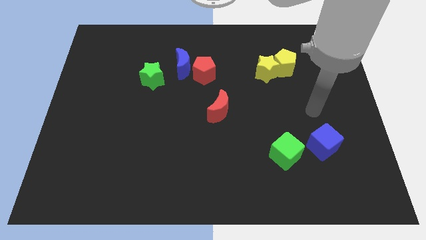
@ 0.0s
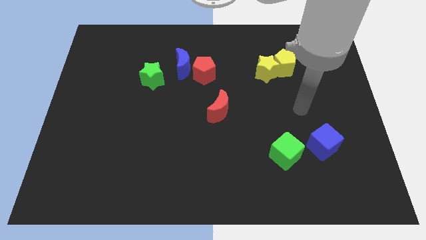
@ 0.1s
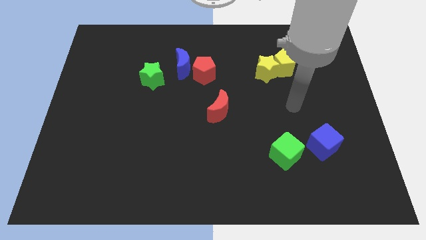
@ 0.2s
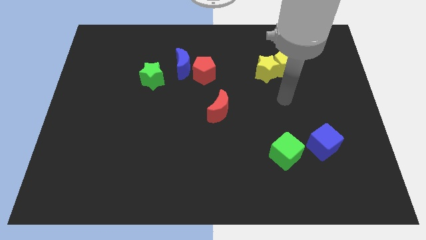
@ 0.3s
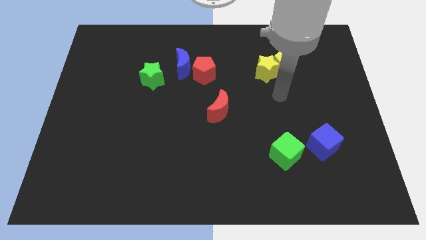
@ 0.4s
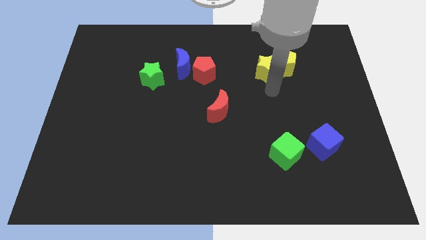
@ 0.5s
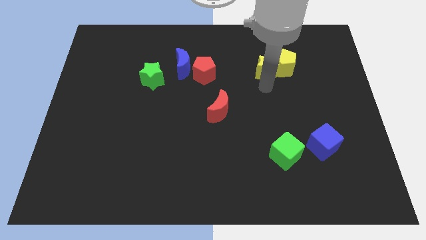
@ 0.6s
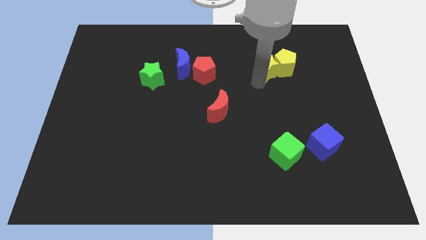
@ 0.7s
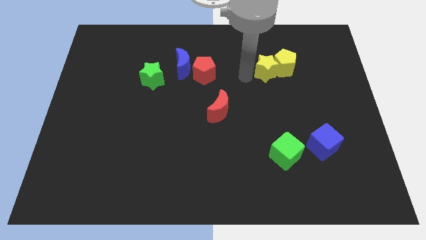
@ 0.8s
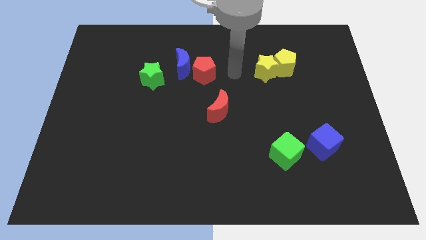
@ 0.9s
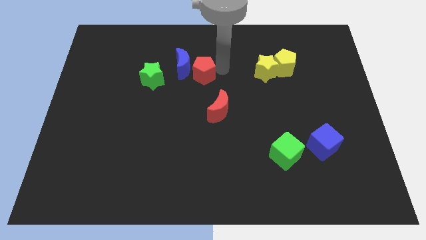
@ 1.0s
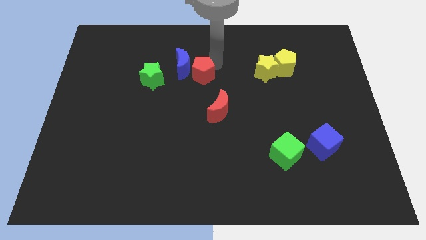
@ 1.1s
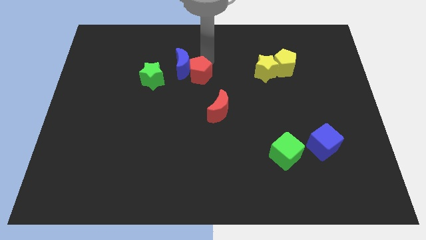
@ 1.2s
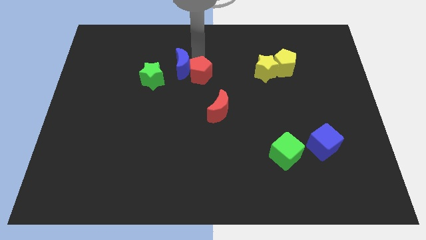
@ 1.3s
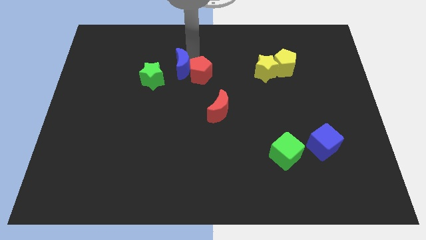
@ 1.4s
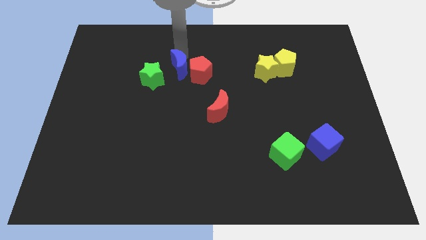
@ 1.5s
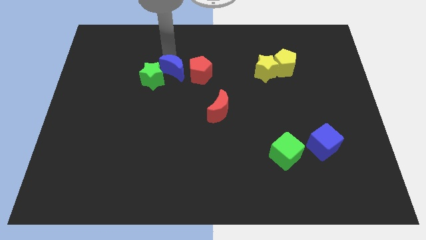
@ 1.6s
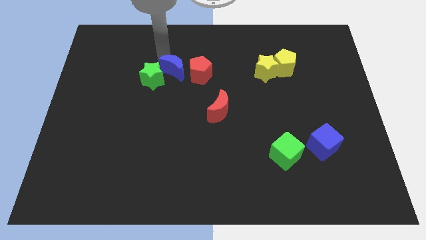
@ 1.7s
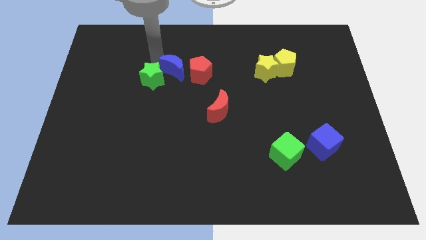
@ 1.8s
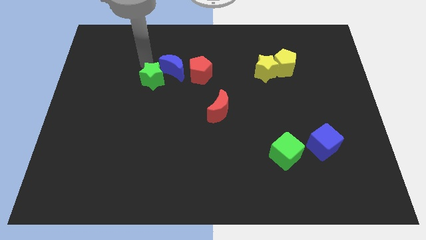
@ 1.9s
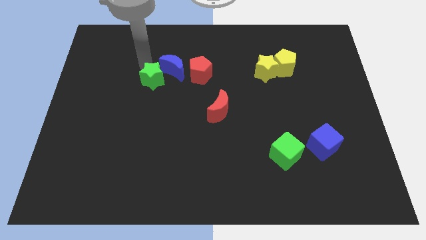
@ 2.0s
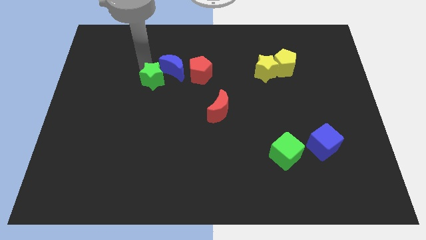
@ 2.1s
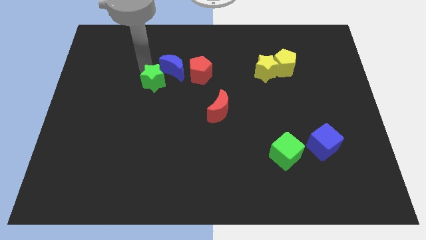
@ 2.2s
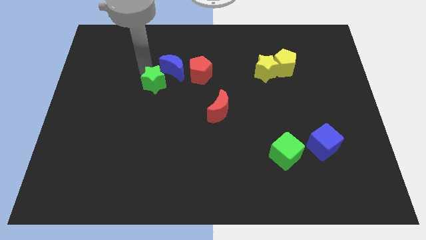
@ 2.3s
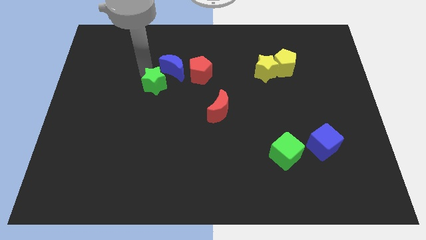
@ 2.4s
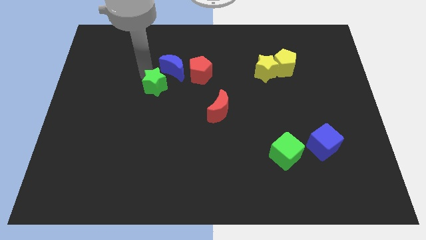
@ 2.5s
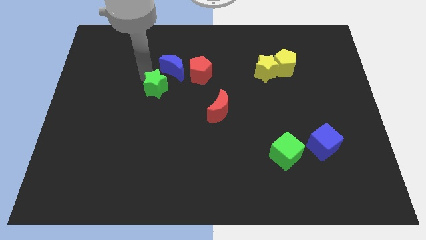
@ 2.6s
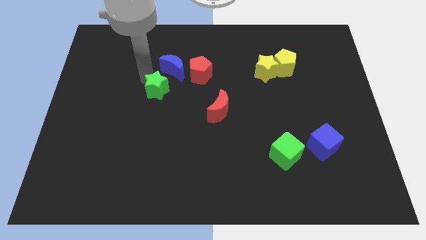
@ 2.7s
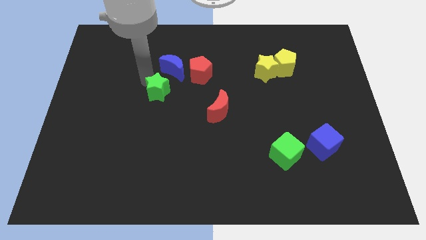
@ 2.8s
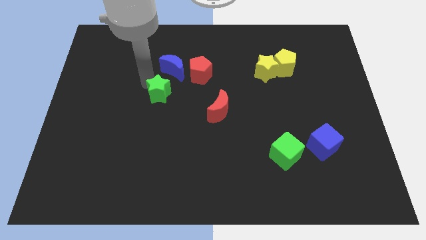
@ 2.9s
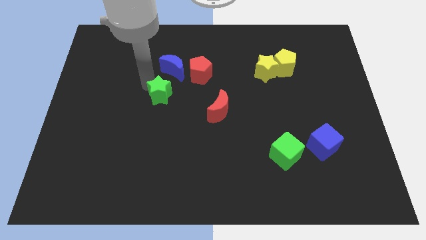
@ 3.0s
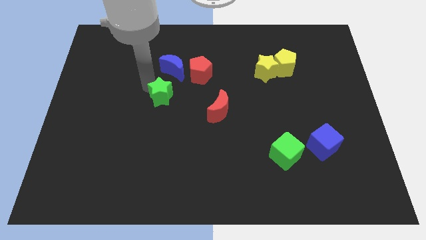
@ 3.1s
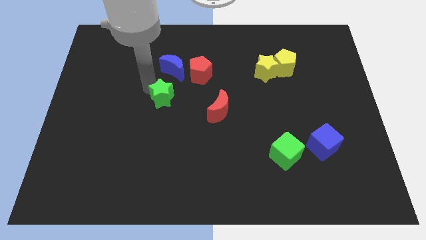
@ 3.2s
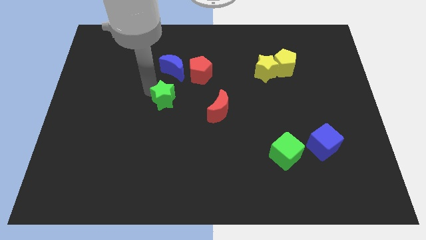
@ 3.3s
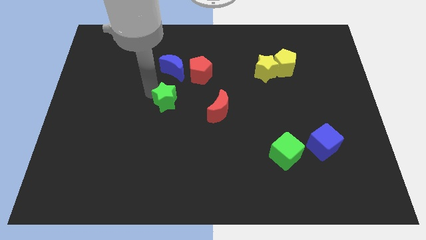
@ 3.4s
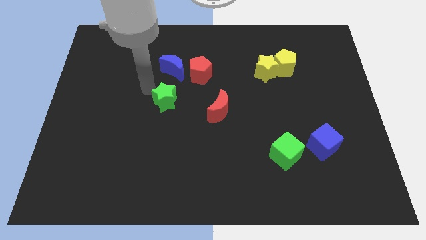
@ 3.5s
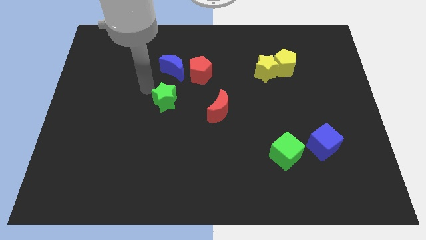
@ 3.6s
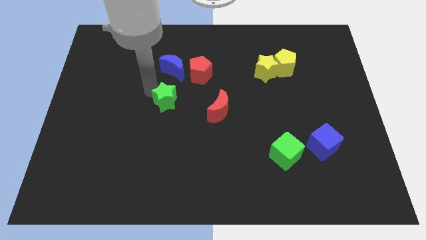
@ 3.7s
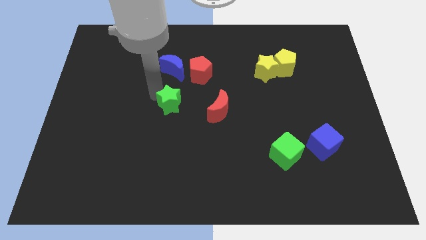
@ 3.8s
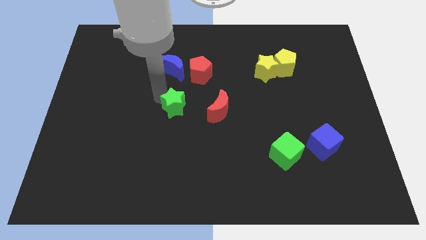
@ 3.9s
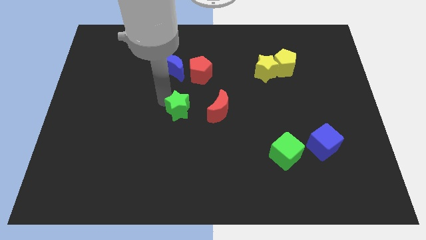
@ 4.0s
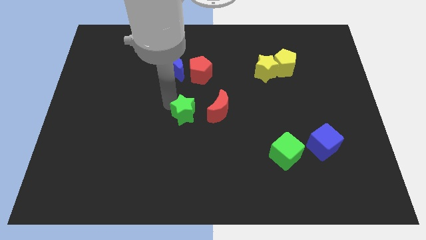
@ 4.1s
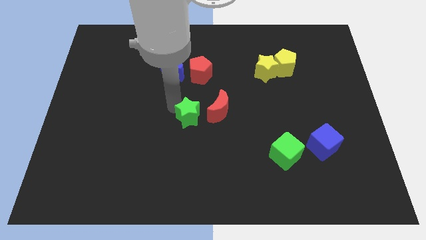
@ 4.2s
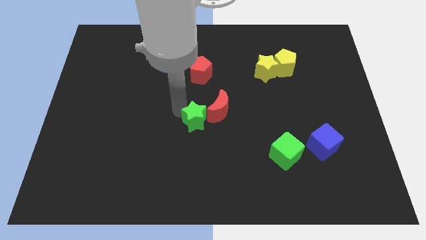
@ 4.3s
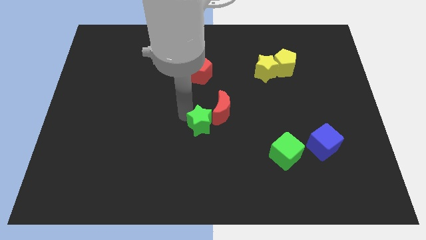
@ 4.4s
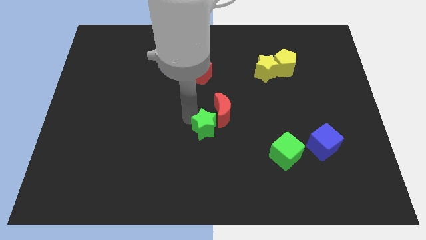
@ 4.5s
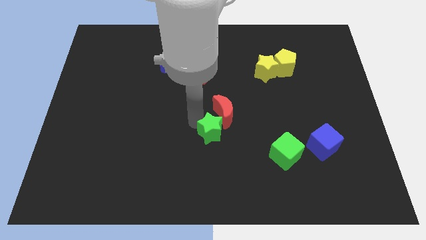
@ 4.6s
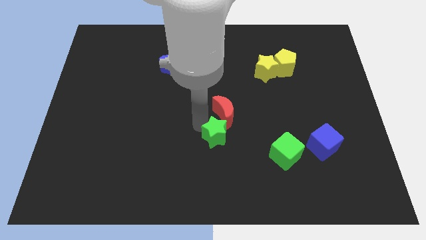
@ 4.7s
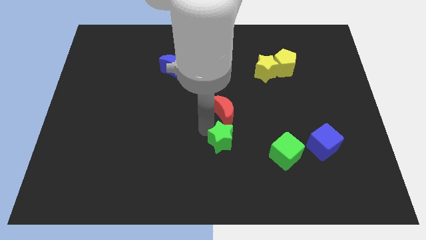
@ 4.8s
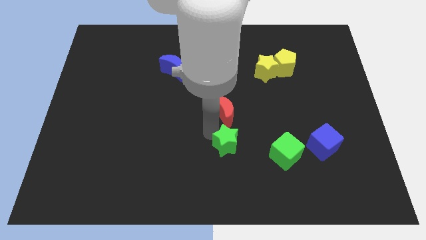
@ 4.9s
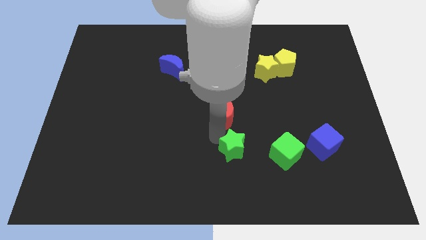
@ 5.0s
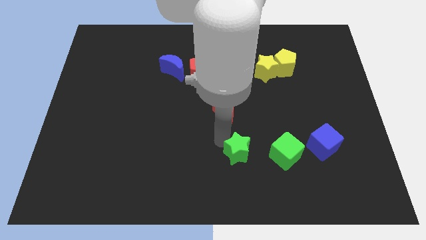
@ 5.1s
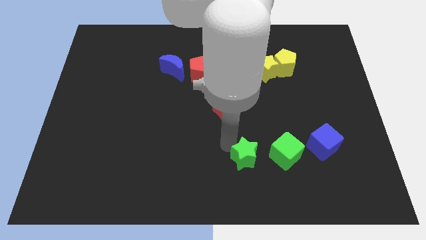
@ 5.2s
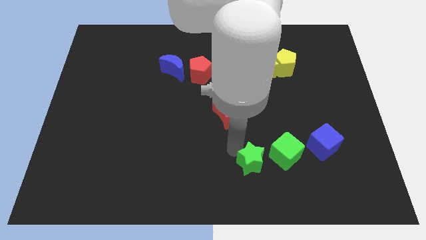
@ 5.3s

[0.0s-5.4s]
put the green star to the bottom left side of the green cube
